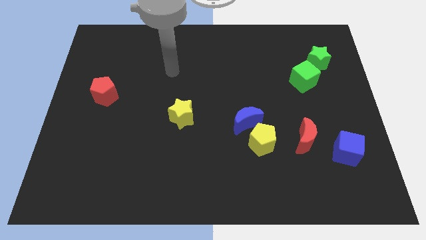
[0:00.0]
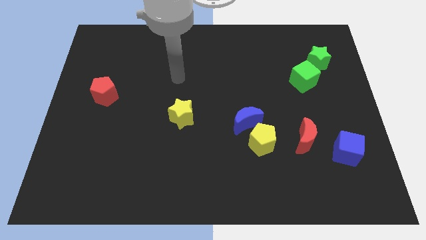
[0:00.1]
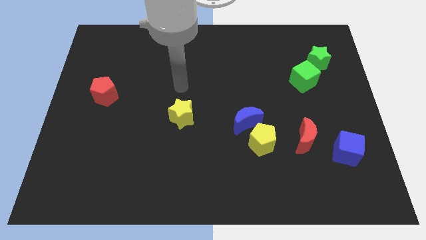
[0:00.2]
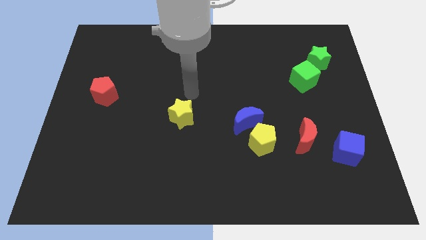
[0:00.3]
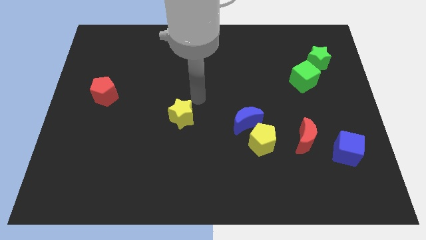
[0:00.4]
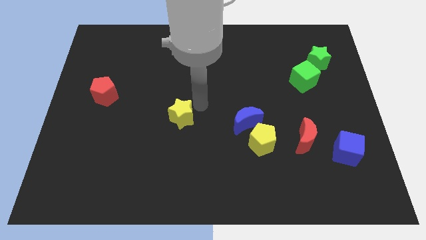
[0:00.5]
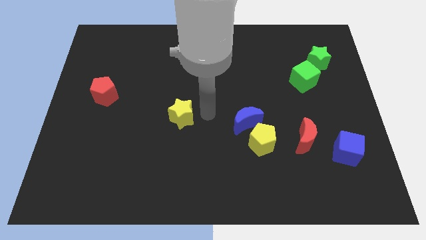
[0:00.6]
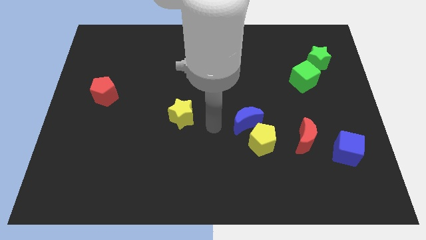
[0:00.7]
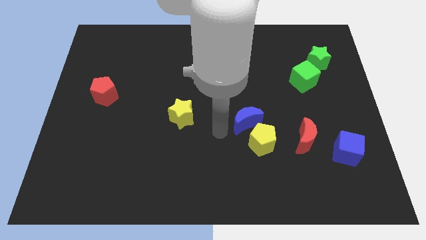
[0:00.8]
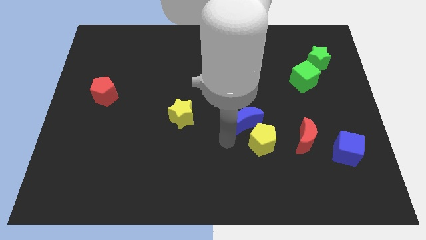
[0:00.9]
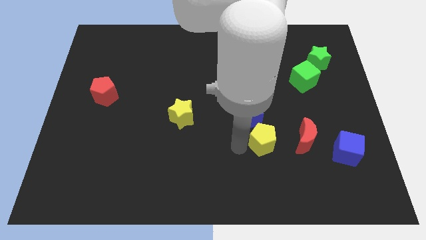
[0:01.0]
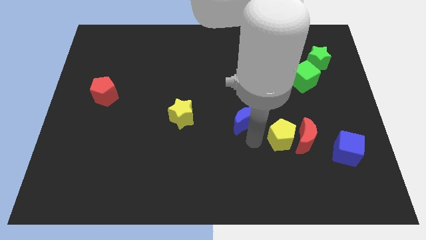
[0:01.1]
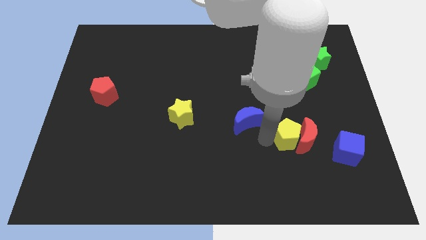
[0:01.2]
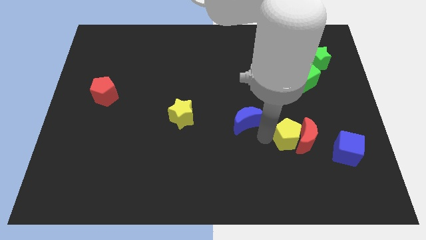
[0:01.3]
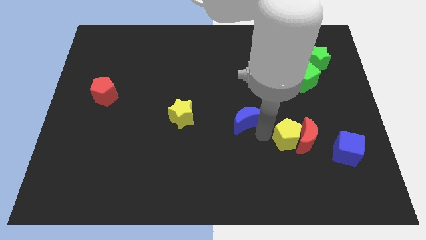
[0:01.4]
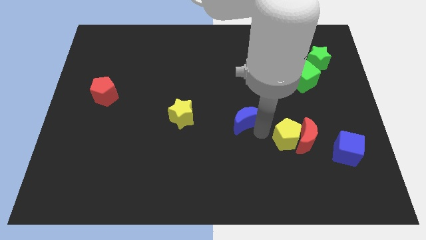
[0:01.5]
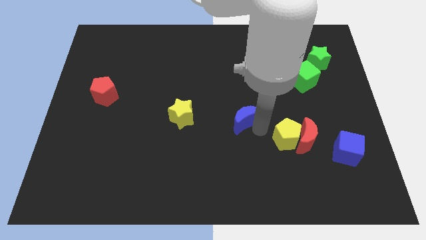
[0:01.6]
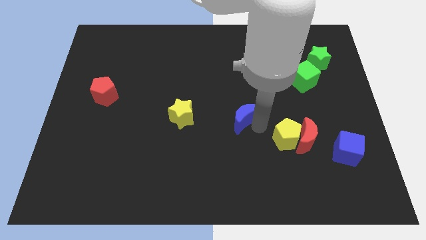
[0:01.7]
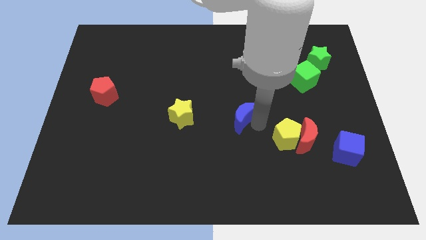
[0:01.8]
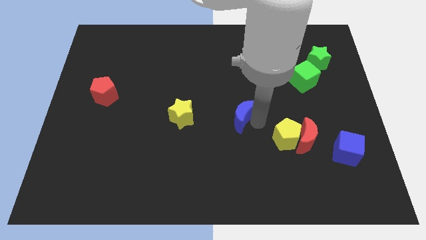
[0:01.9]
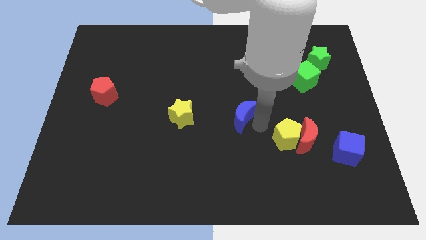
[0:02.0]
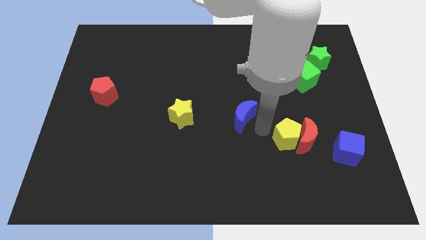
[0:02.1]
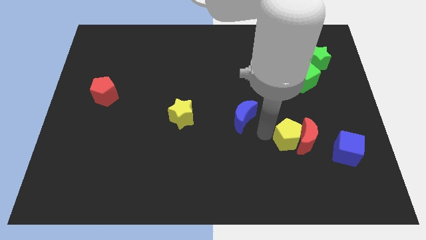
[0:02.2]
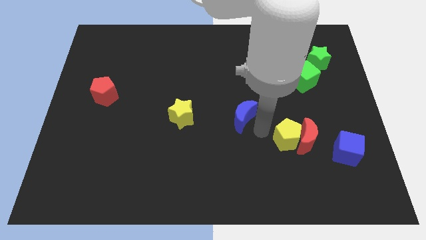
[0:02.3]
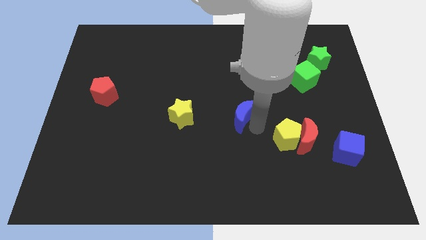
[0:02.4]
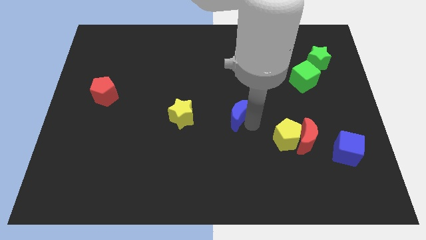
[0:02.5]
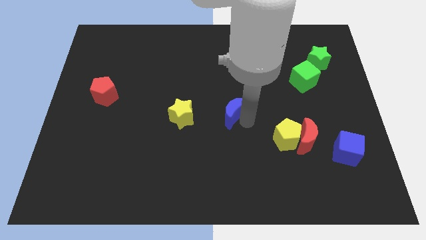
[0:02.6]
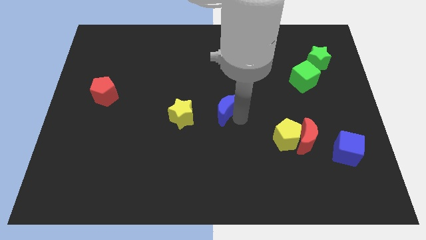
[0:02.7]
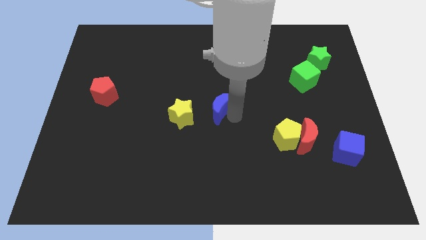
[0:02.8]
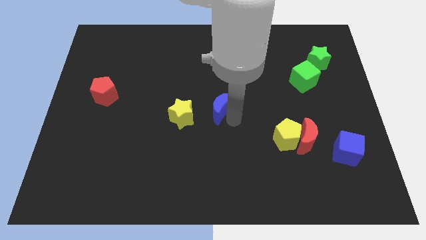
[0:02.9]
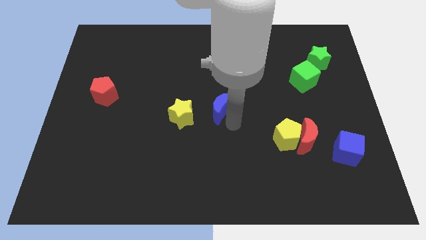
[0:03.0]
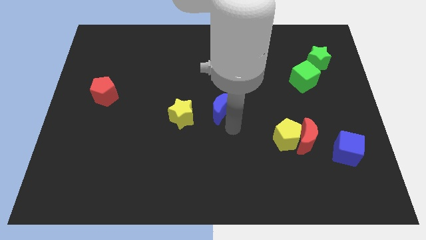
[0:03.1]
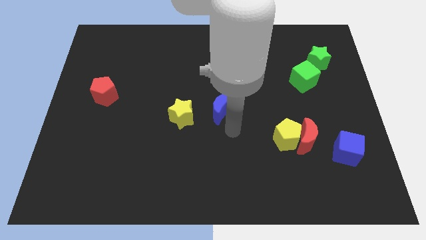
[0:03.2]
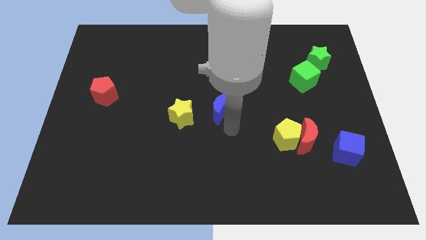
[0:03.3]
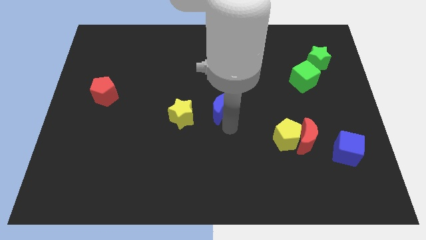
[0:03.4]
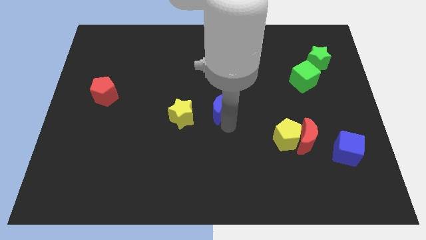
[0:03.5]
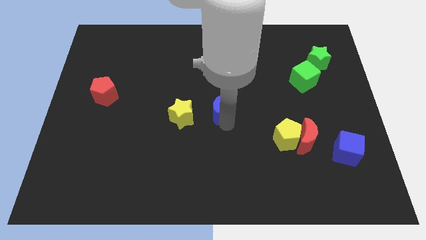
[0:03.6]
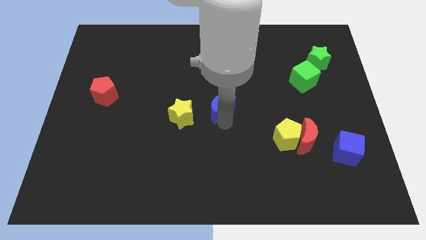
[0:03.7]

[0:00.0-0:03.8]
slightly push the blue moon upwards and then to the left

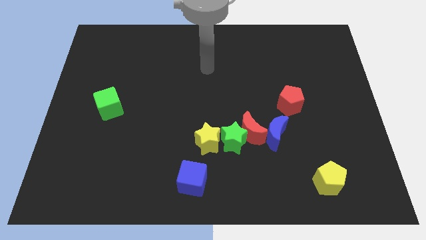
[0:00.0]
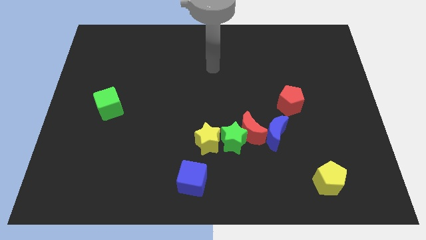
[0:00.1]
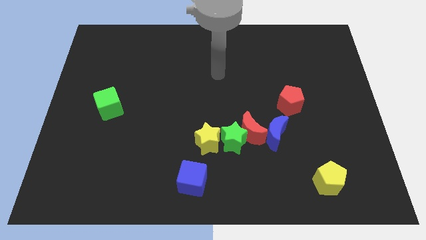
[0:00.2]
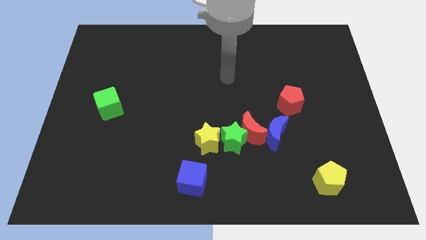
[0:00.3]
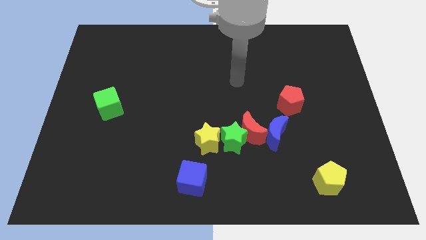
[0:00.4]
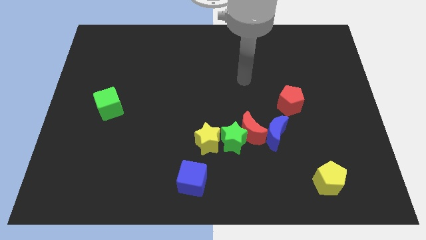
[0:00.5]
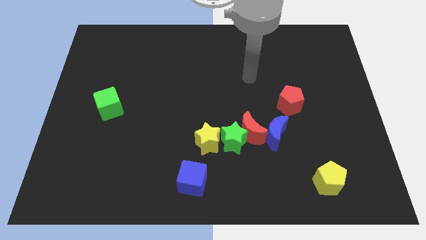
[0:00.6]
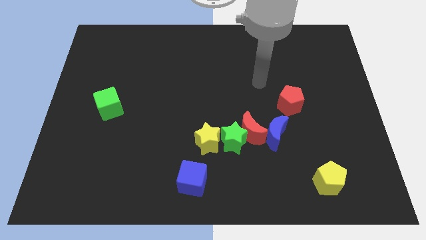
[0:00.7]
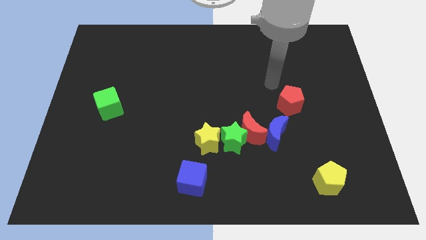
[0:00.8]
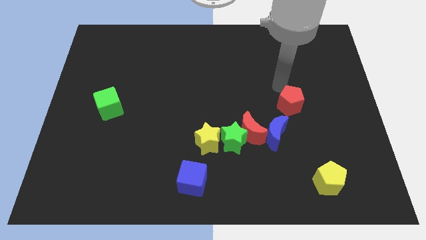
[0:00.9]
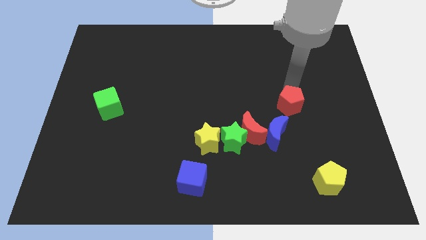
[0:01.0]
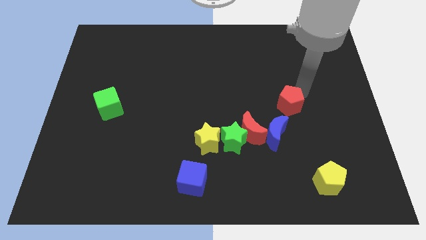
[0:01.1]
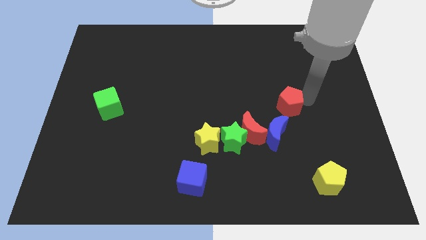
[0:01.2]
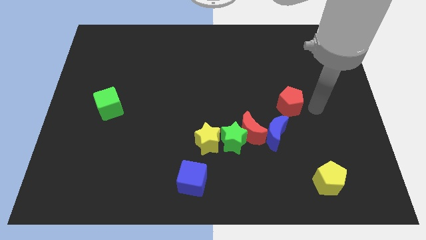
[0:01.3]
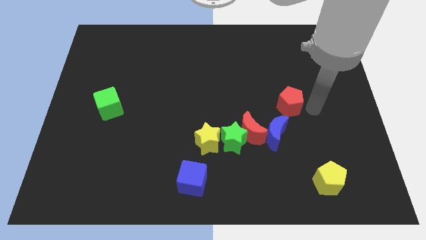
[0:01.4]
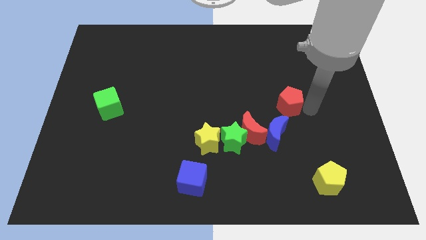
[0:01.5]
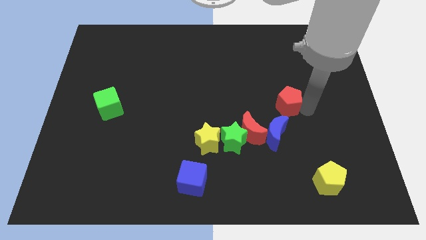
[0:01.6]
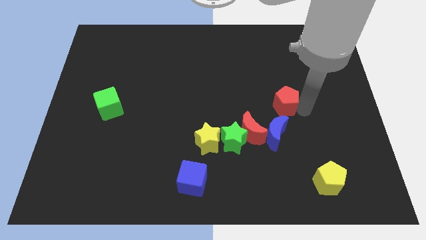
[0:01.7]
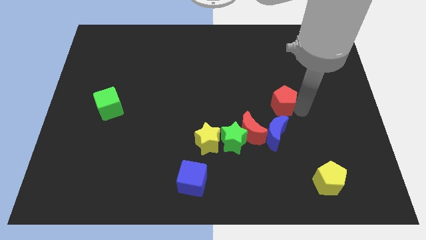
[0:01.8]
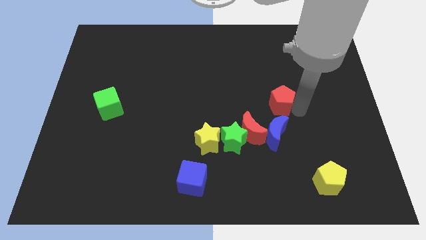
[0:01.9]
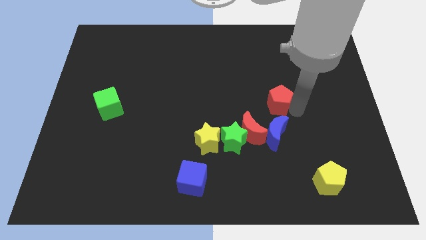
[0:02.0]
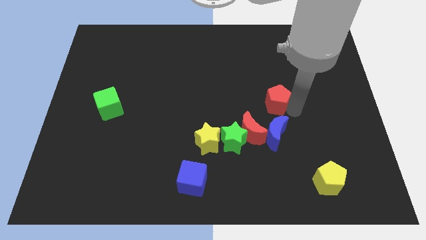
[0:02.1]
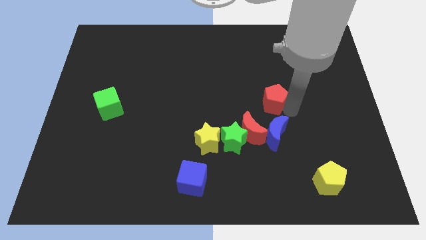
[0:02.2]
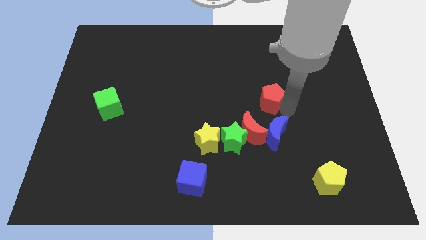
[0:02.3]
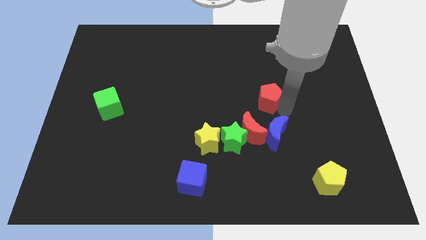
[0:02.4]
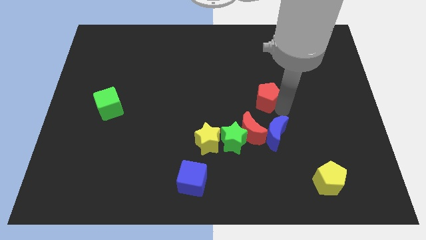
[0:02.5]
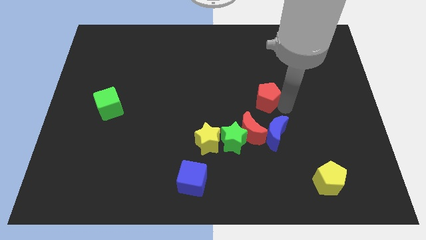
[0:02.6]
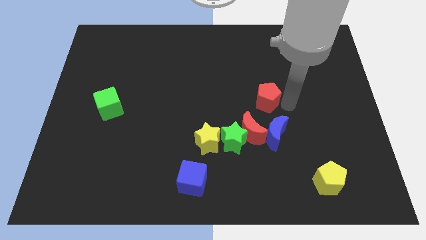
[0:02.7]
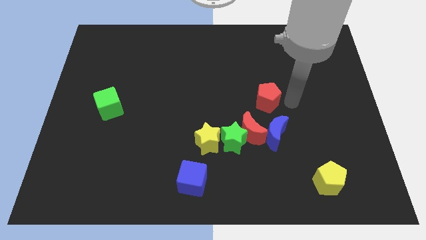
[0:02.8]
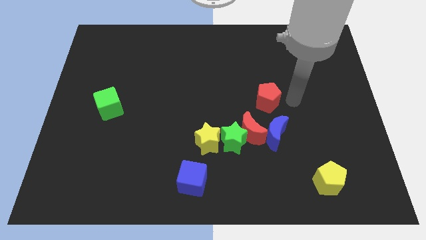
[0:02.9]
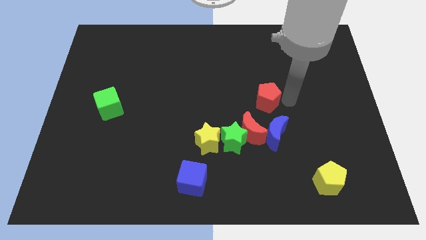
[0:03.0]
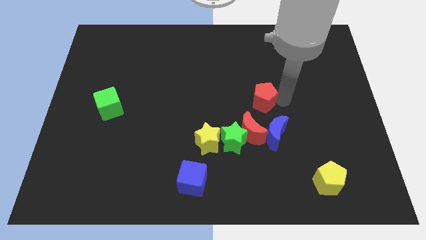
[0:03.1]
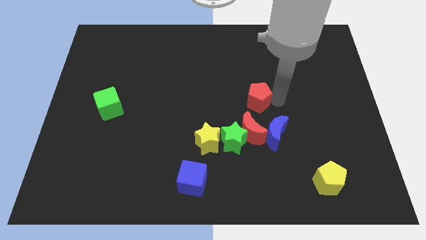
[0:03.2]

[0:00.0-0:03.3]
move the red pentagon a little bit left

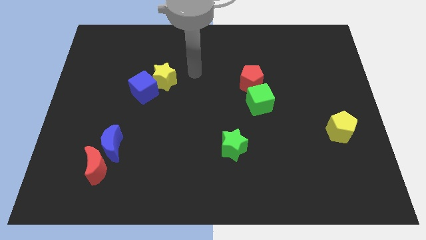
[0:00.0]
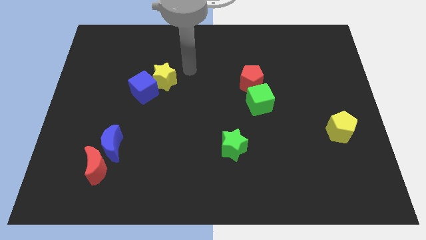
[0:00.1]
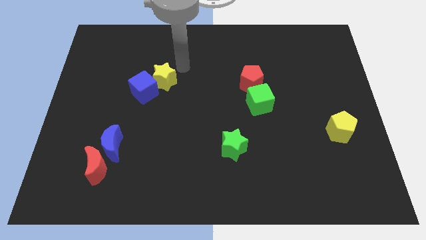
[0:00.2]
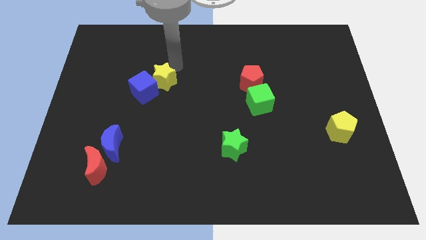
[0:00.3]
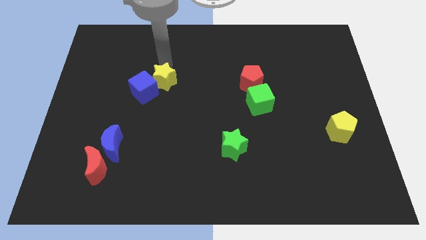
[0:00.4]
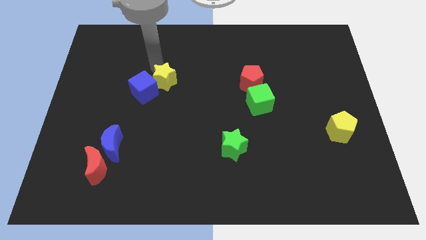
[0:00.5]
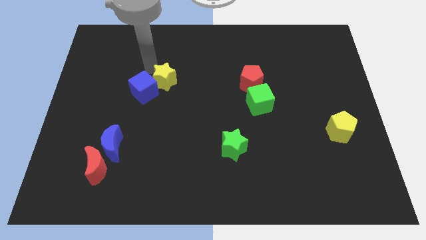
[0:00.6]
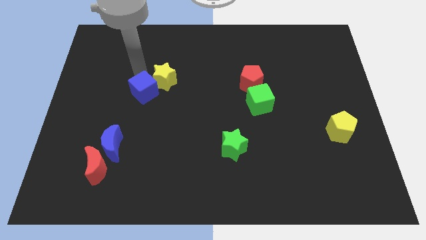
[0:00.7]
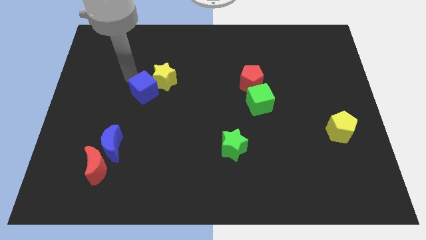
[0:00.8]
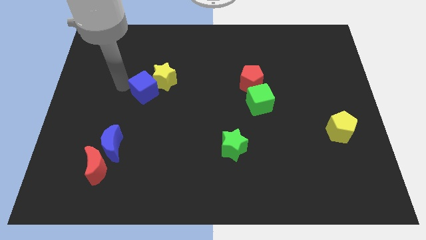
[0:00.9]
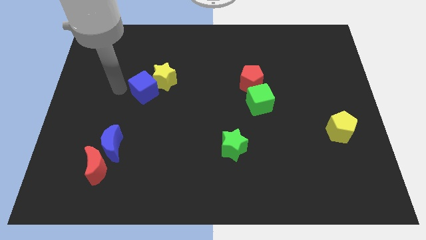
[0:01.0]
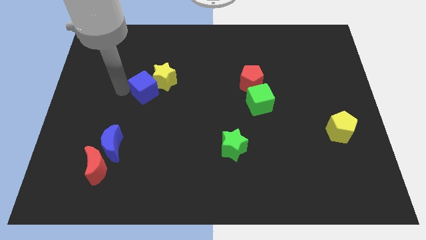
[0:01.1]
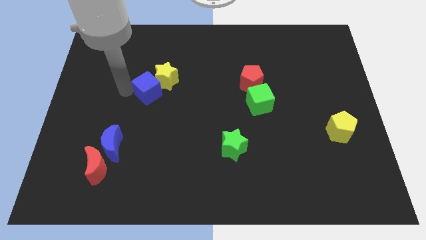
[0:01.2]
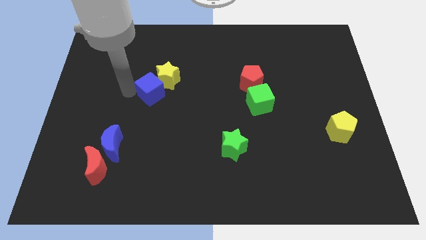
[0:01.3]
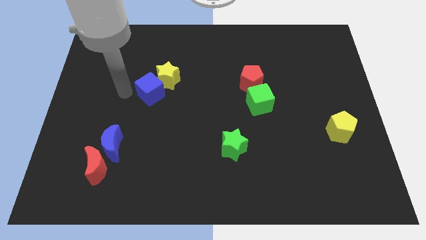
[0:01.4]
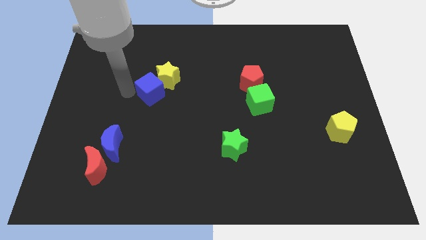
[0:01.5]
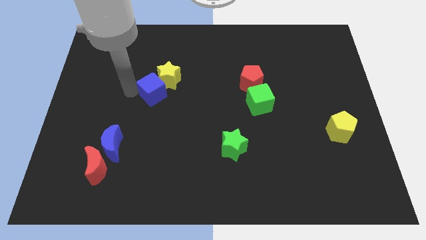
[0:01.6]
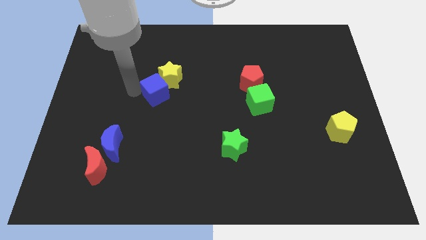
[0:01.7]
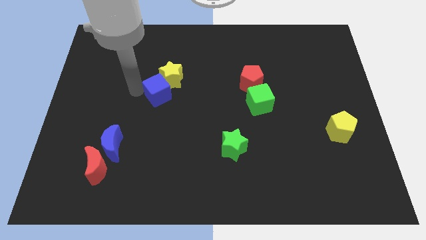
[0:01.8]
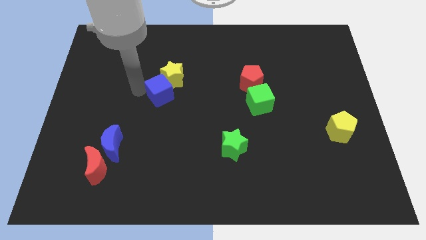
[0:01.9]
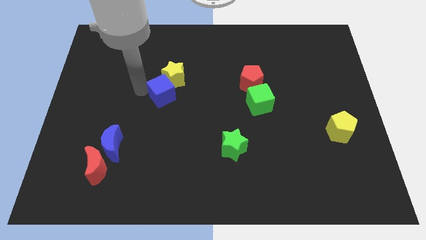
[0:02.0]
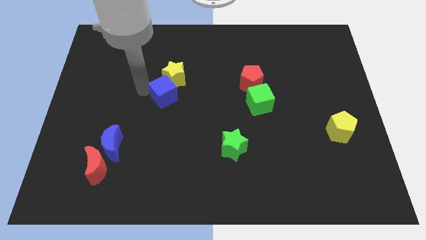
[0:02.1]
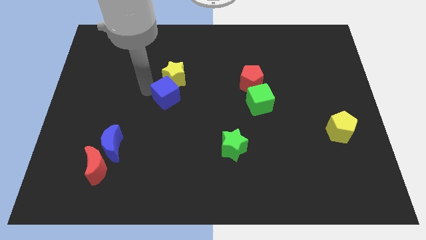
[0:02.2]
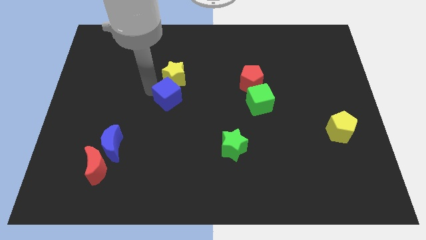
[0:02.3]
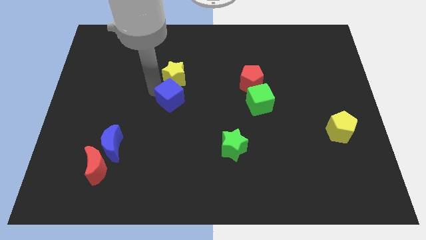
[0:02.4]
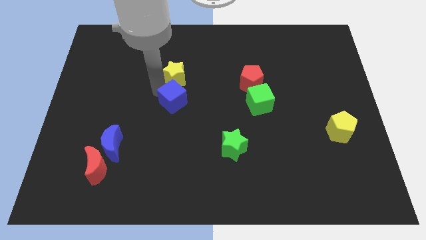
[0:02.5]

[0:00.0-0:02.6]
move the blue cube a bit right
